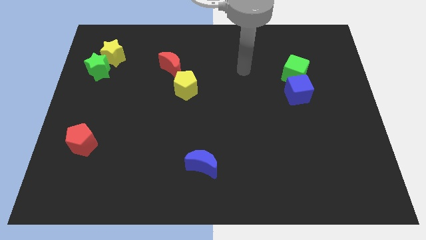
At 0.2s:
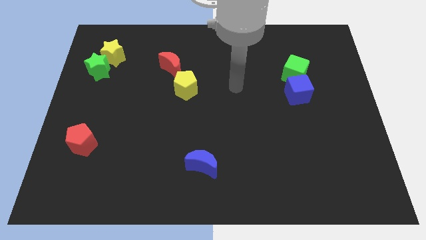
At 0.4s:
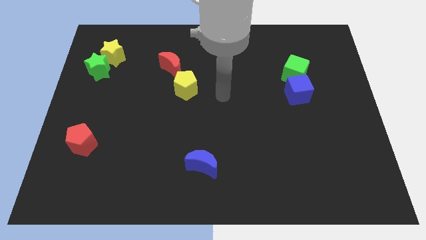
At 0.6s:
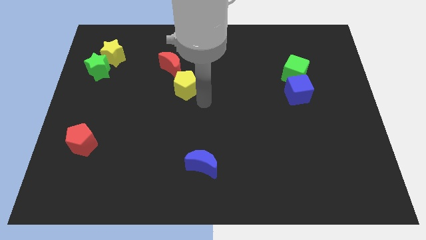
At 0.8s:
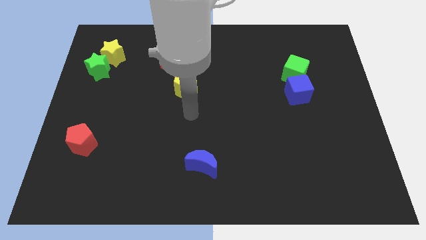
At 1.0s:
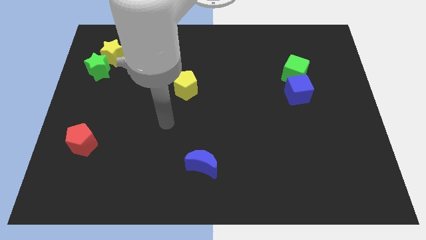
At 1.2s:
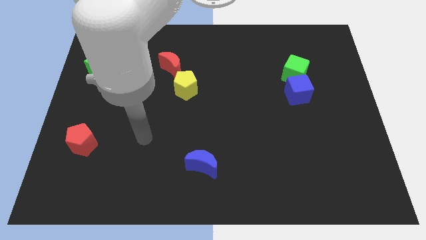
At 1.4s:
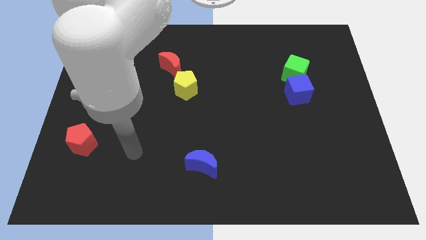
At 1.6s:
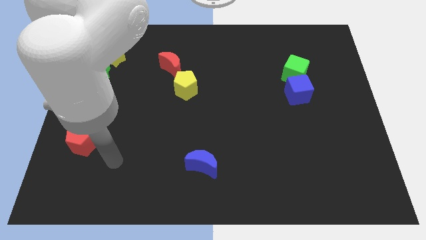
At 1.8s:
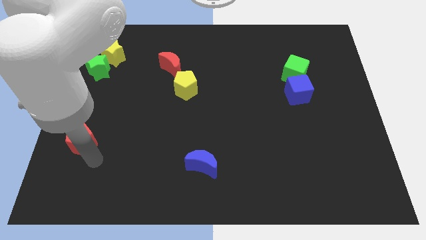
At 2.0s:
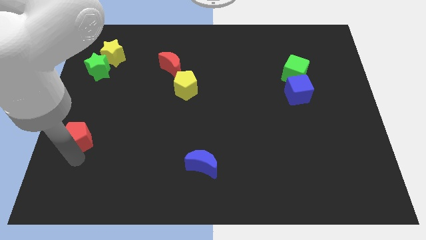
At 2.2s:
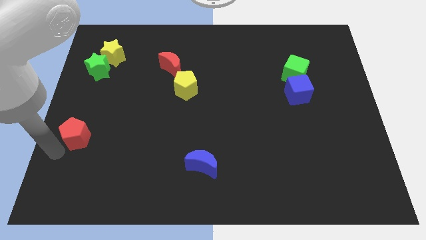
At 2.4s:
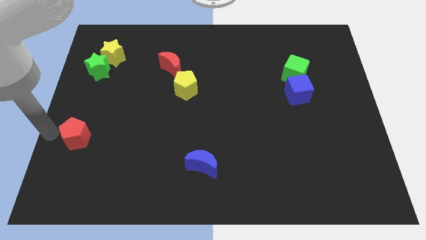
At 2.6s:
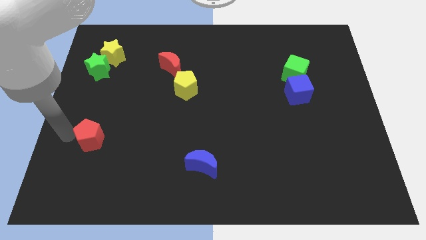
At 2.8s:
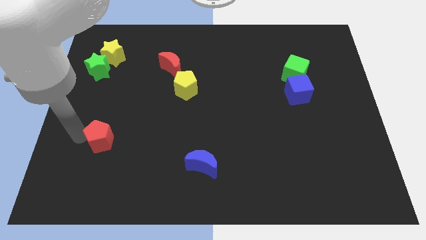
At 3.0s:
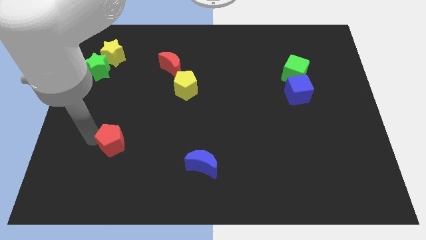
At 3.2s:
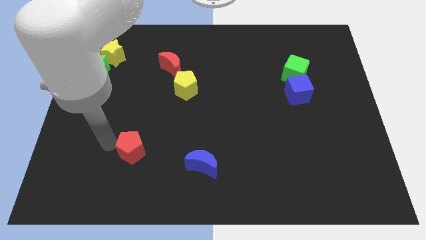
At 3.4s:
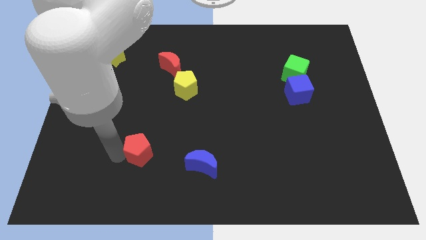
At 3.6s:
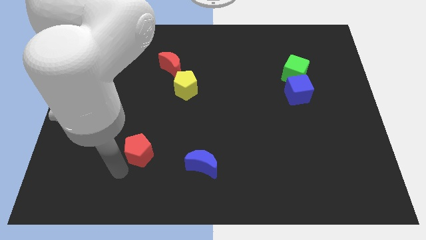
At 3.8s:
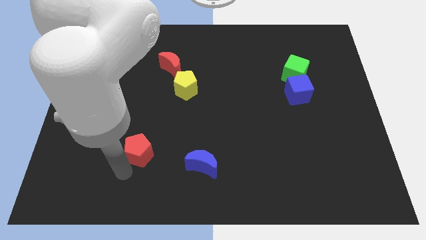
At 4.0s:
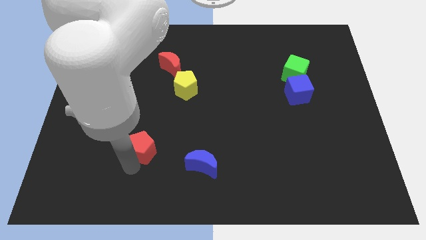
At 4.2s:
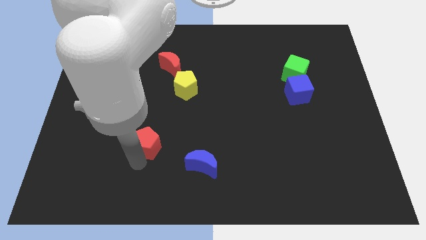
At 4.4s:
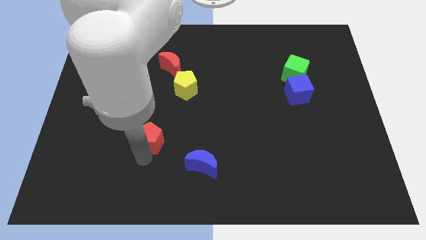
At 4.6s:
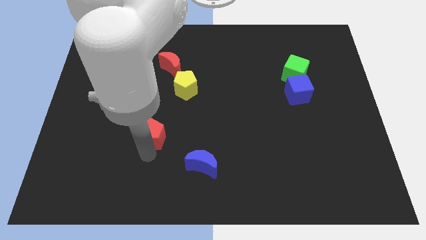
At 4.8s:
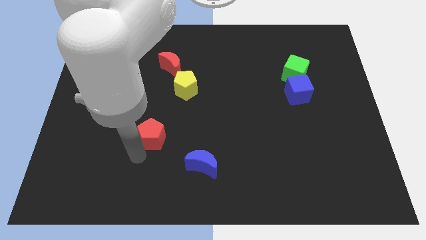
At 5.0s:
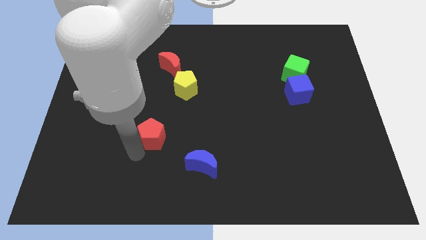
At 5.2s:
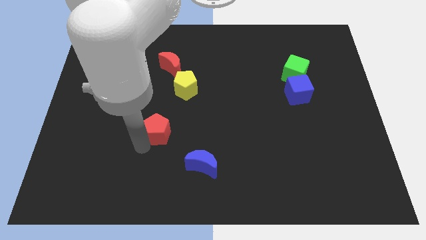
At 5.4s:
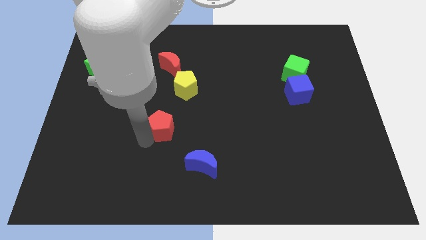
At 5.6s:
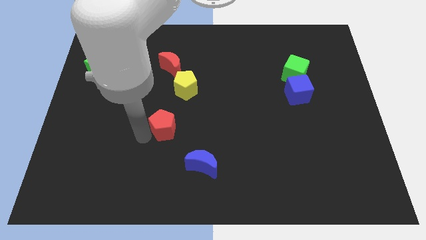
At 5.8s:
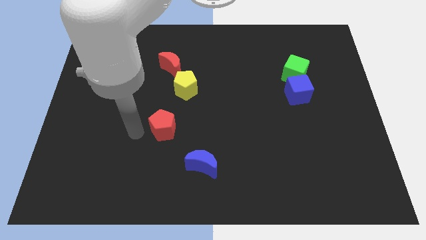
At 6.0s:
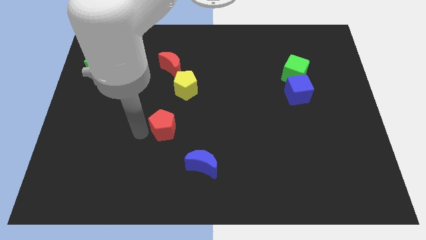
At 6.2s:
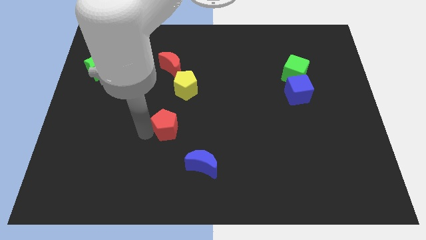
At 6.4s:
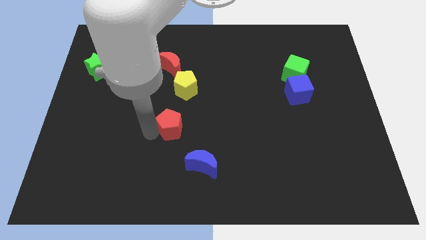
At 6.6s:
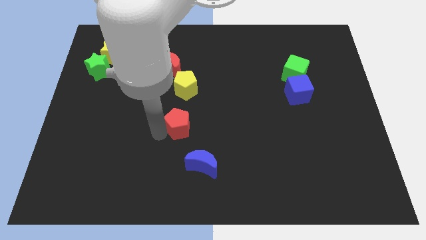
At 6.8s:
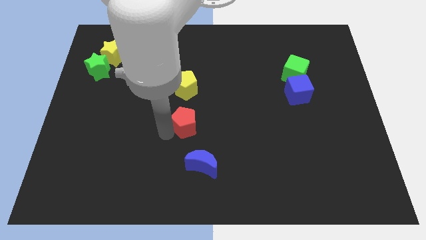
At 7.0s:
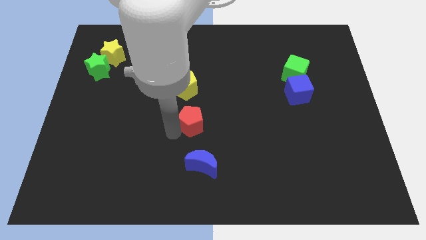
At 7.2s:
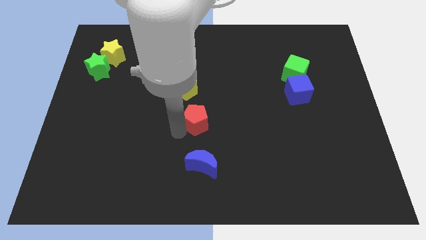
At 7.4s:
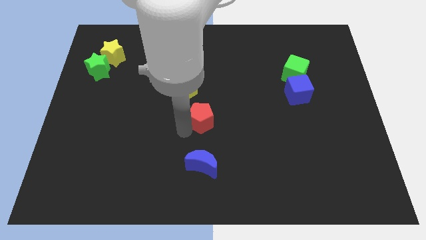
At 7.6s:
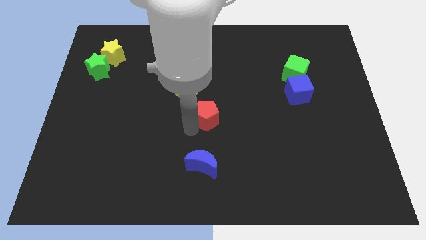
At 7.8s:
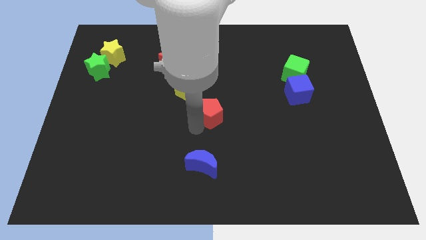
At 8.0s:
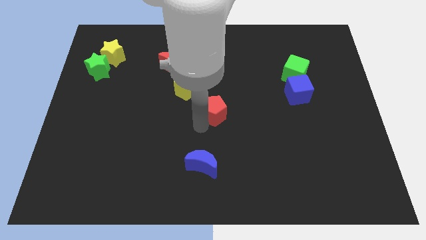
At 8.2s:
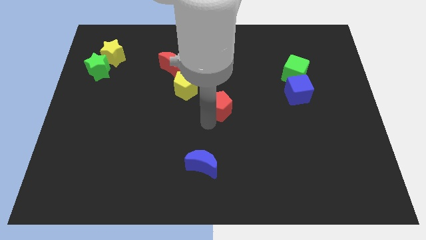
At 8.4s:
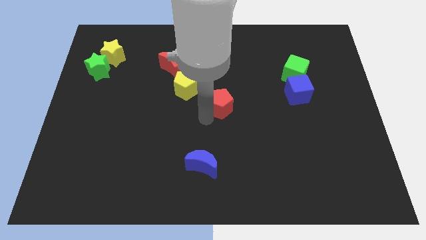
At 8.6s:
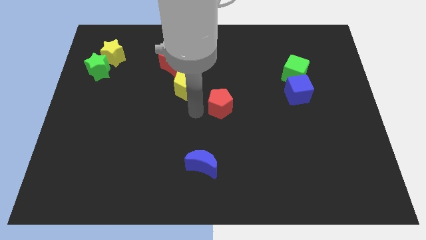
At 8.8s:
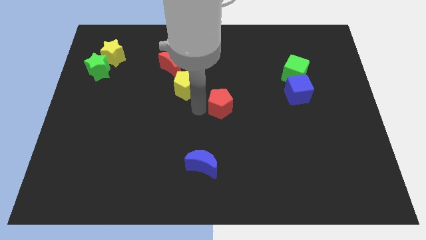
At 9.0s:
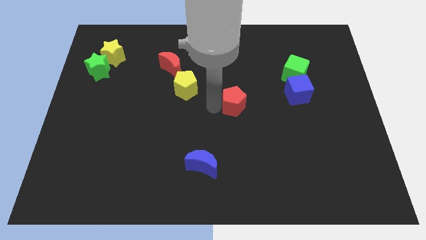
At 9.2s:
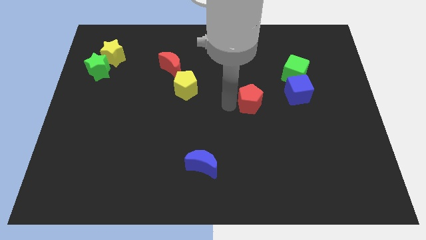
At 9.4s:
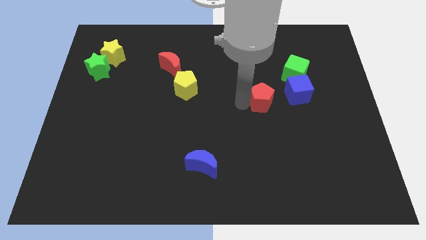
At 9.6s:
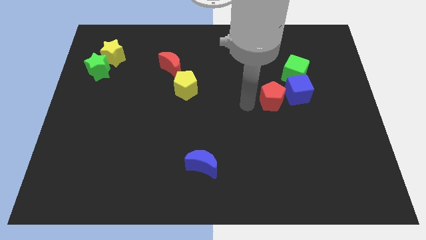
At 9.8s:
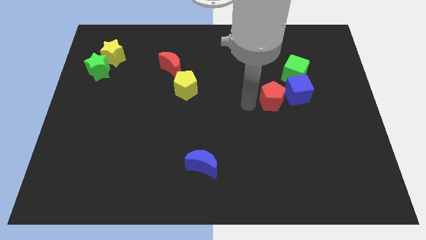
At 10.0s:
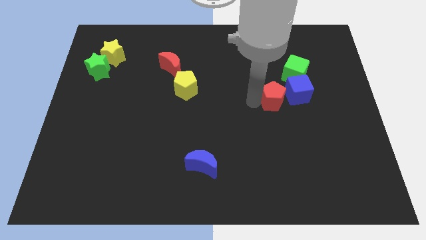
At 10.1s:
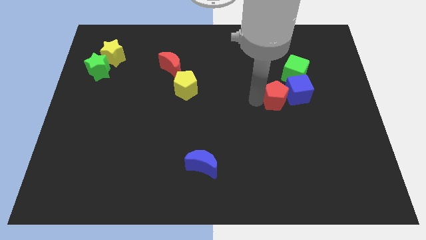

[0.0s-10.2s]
put the red pentagon to the blue cube

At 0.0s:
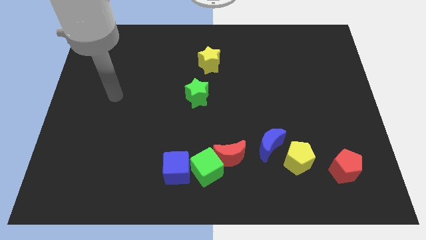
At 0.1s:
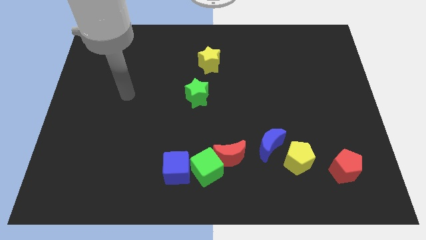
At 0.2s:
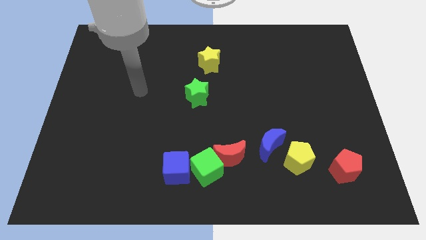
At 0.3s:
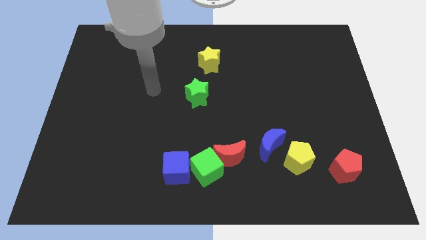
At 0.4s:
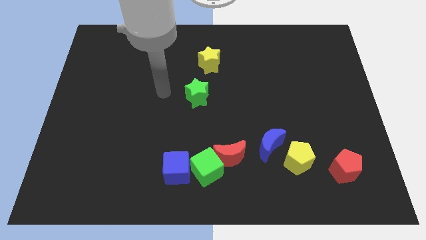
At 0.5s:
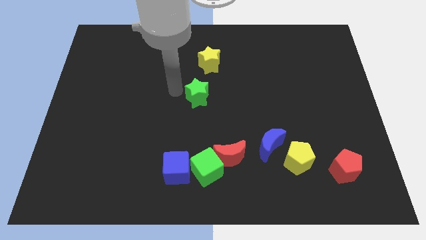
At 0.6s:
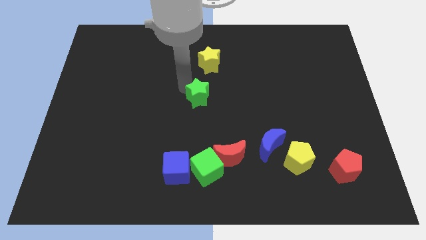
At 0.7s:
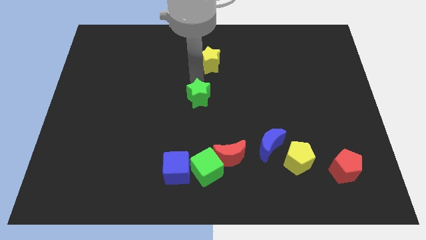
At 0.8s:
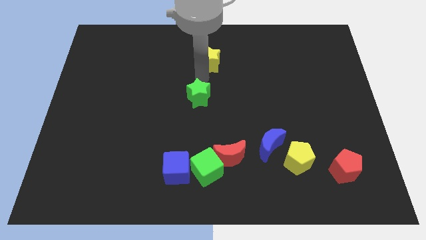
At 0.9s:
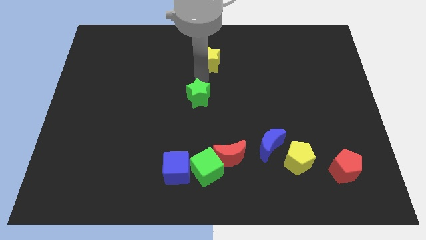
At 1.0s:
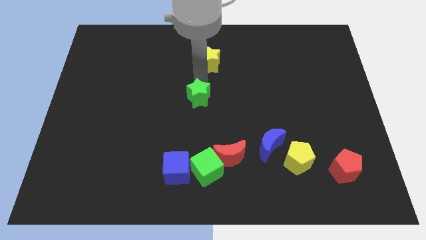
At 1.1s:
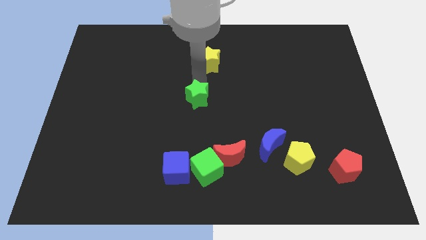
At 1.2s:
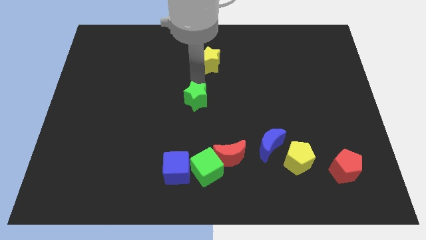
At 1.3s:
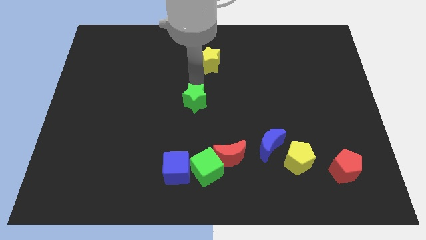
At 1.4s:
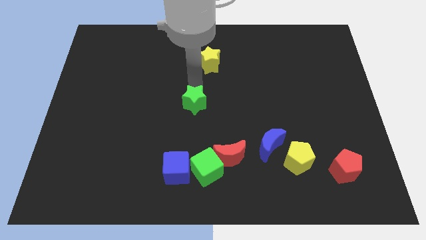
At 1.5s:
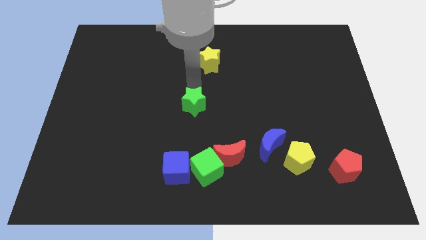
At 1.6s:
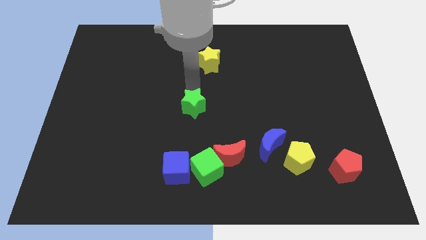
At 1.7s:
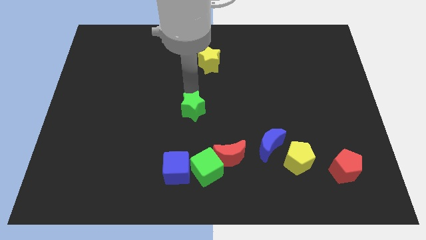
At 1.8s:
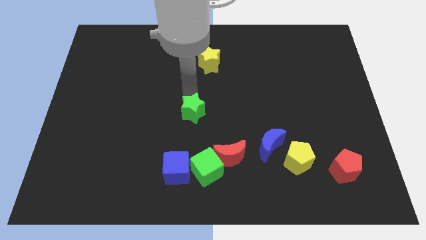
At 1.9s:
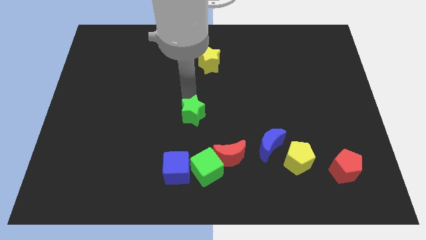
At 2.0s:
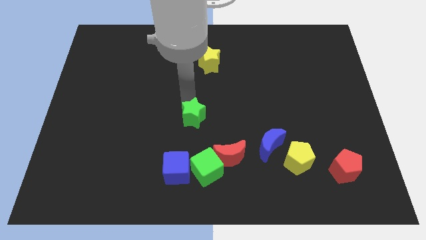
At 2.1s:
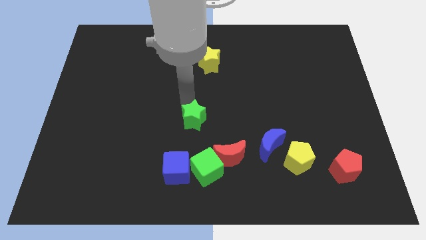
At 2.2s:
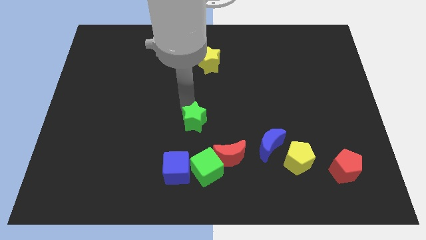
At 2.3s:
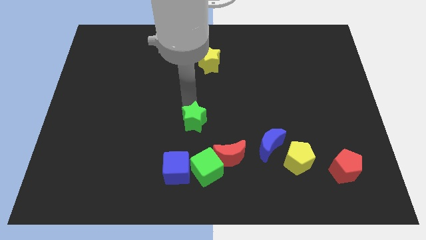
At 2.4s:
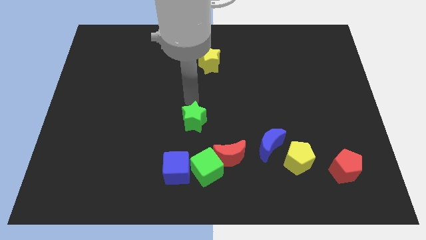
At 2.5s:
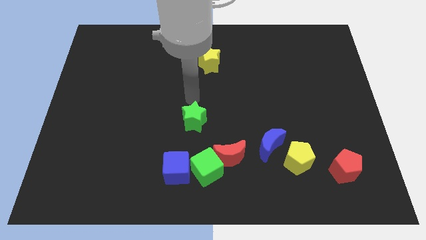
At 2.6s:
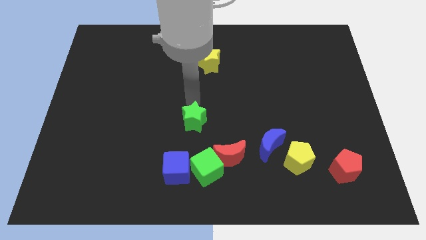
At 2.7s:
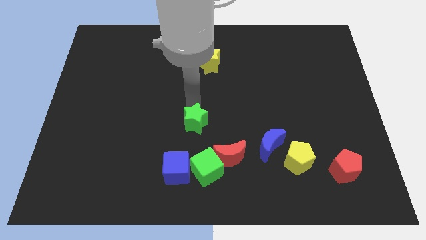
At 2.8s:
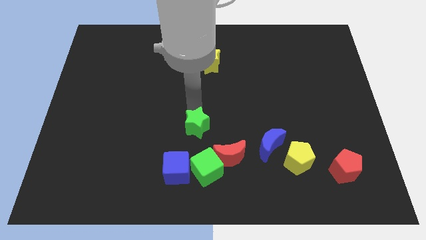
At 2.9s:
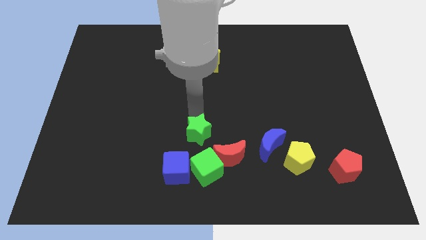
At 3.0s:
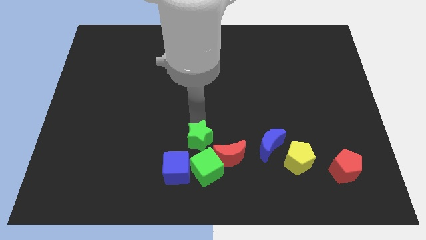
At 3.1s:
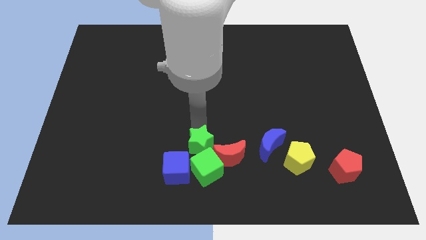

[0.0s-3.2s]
put the green star towards the green cube
